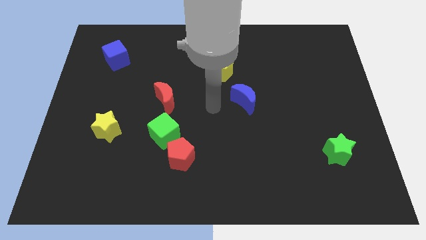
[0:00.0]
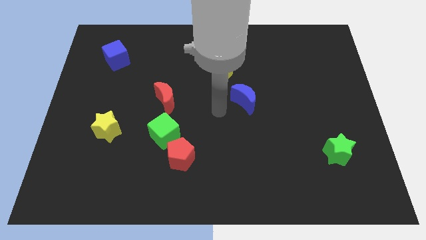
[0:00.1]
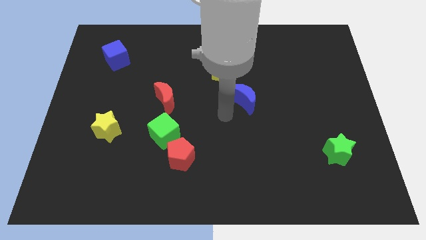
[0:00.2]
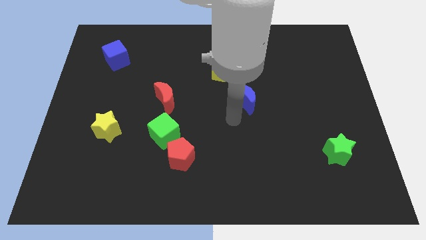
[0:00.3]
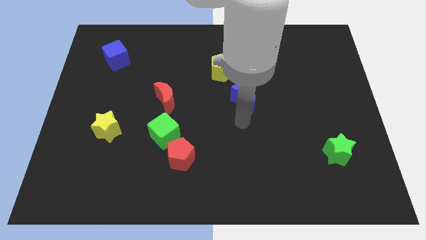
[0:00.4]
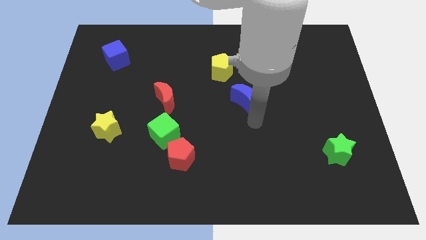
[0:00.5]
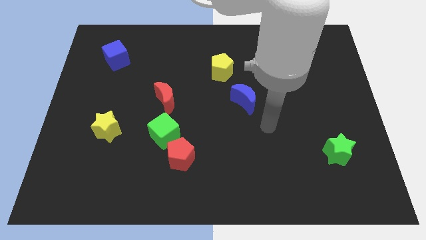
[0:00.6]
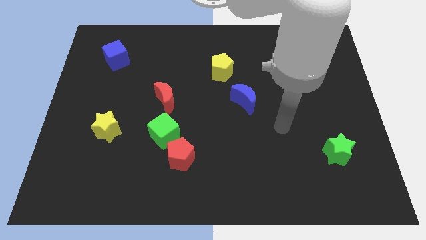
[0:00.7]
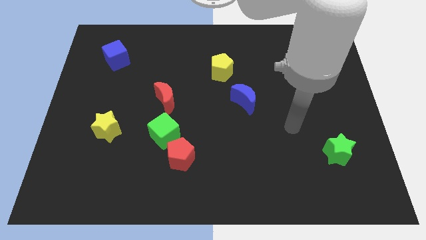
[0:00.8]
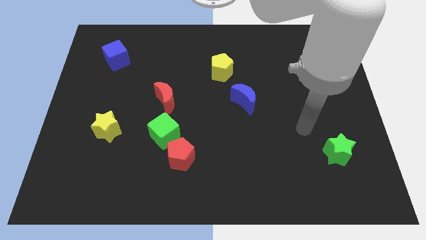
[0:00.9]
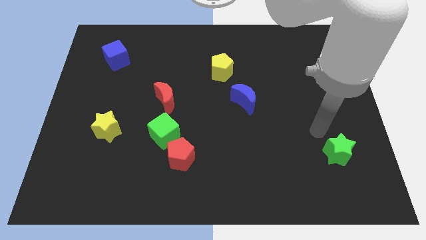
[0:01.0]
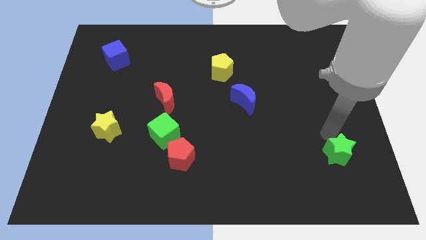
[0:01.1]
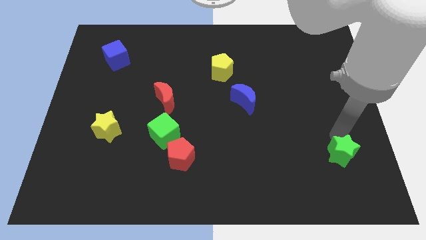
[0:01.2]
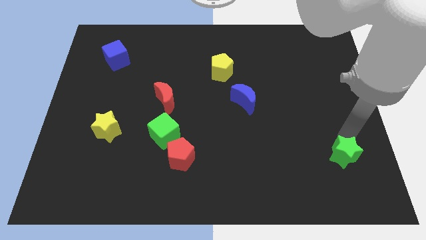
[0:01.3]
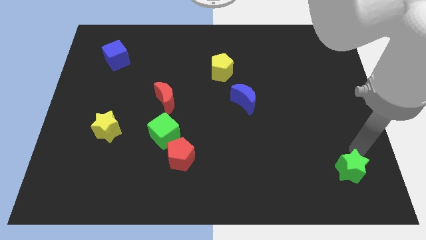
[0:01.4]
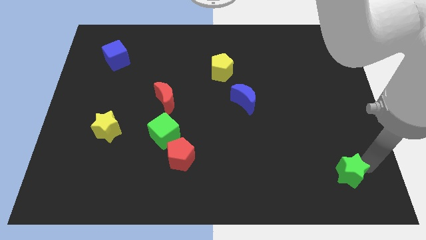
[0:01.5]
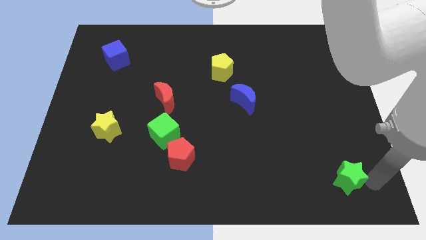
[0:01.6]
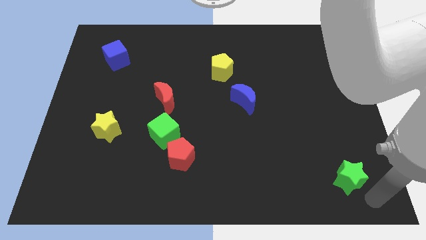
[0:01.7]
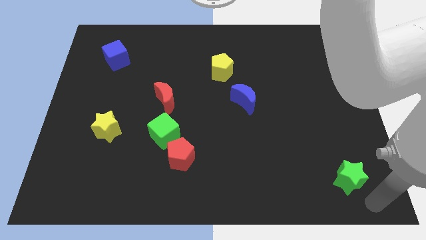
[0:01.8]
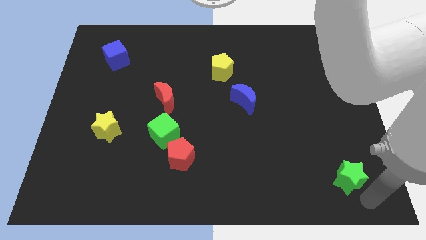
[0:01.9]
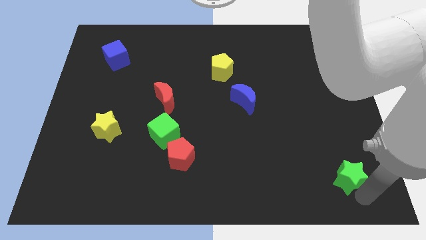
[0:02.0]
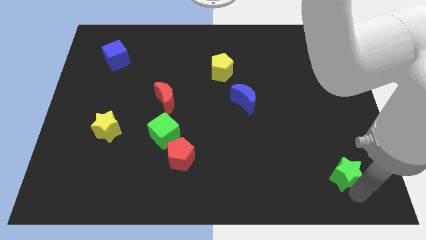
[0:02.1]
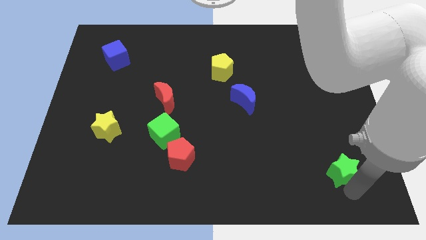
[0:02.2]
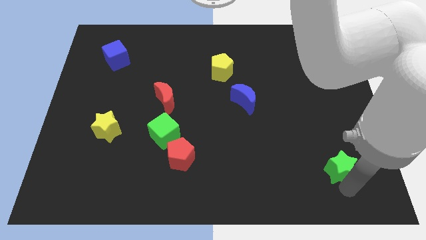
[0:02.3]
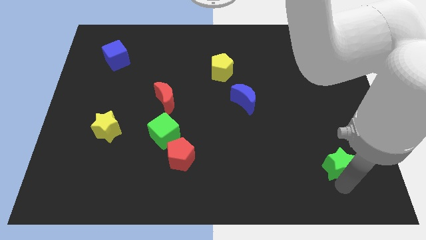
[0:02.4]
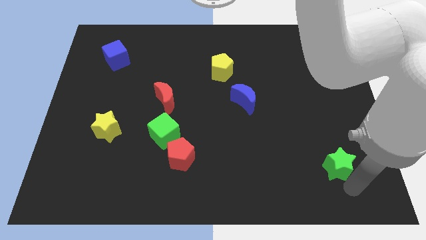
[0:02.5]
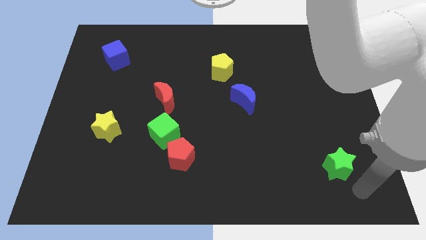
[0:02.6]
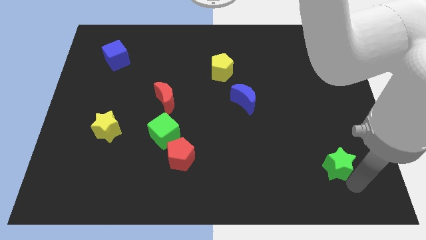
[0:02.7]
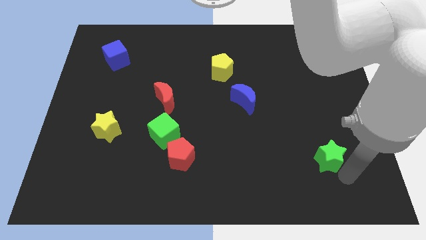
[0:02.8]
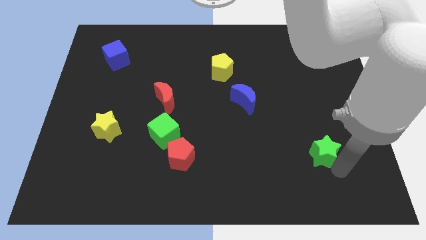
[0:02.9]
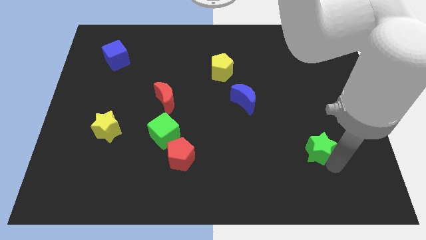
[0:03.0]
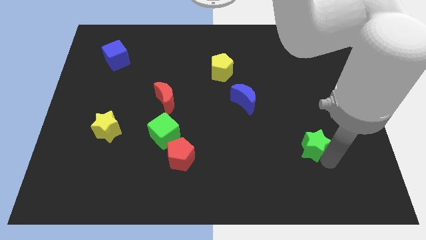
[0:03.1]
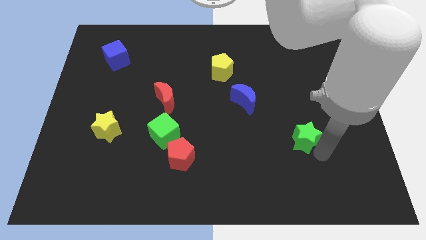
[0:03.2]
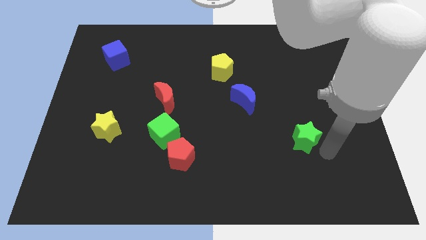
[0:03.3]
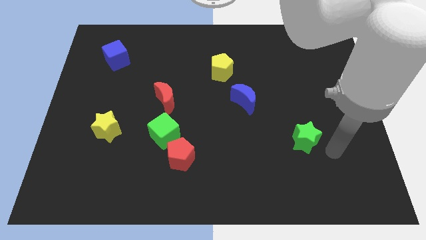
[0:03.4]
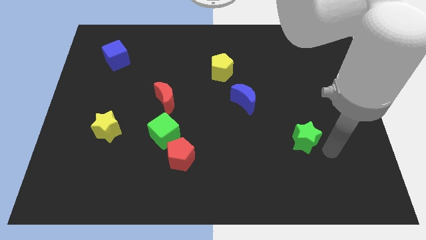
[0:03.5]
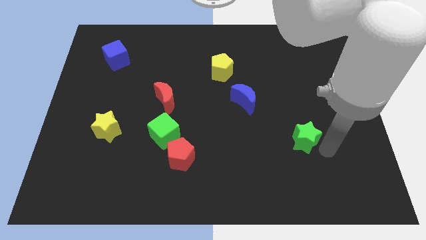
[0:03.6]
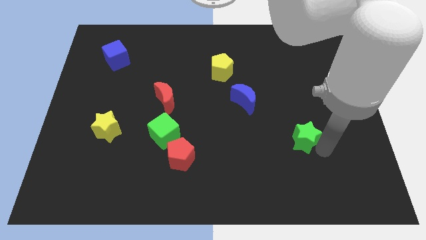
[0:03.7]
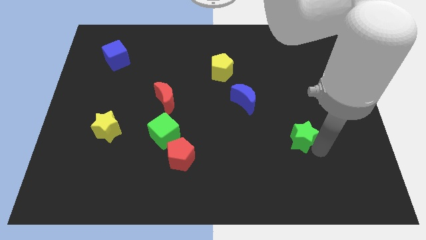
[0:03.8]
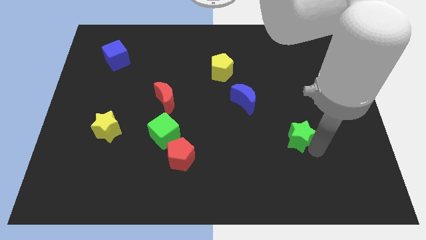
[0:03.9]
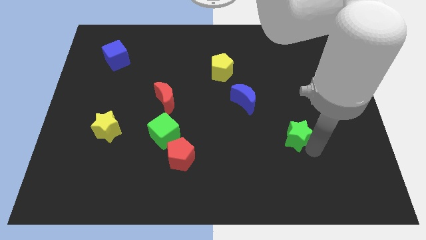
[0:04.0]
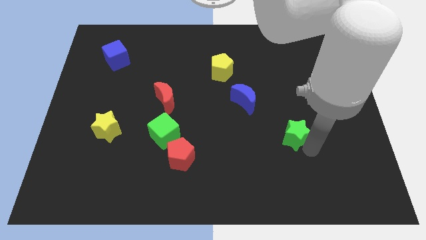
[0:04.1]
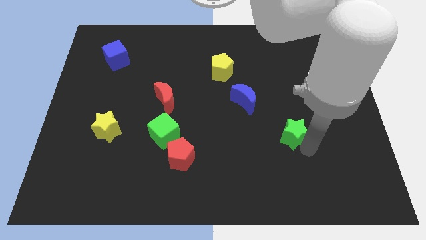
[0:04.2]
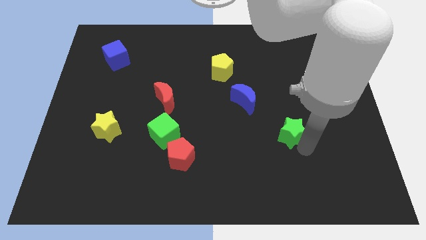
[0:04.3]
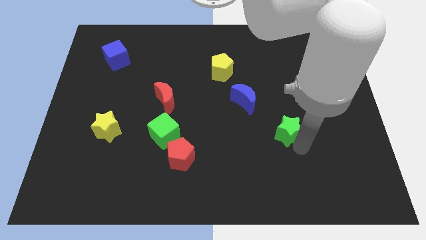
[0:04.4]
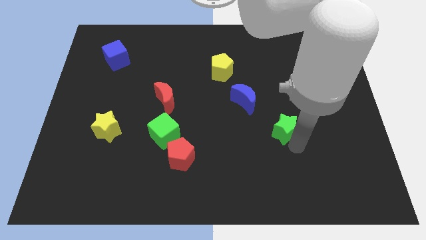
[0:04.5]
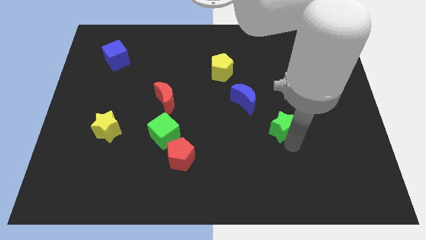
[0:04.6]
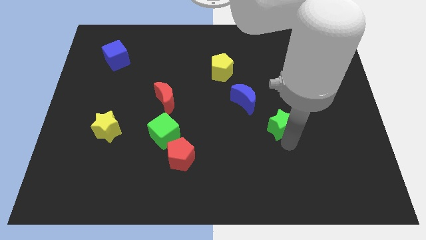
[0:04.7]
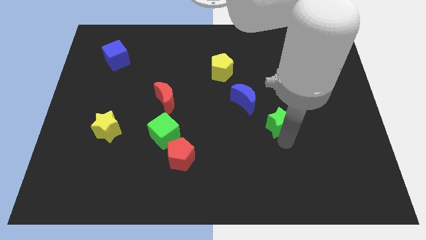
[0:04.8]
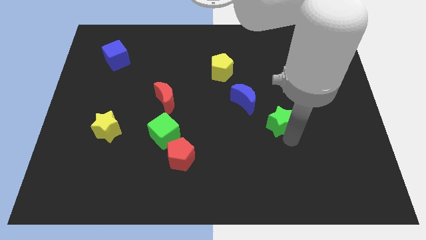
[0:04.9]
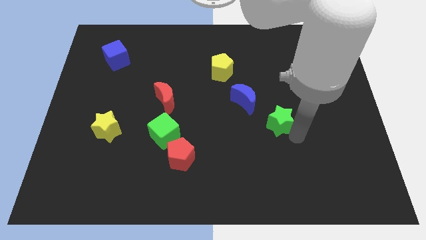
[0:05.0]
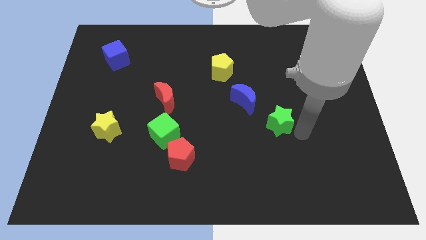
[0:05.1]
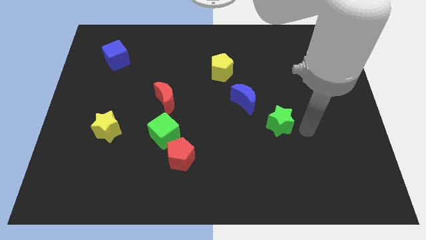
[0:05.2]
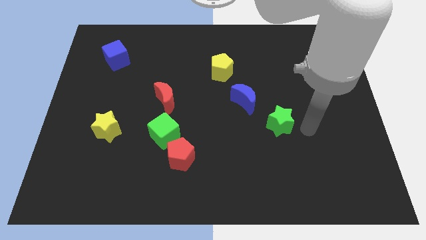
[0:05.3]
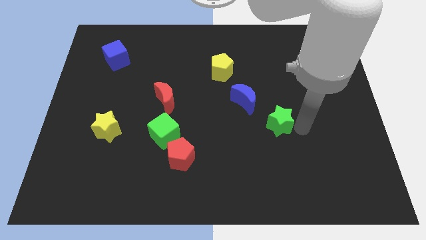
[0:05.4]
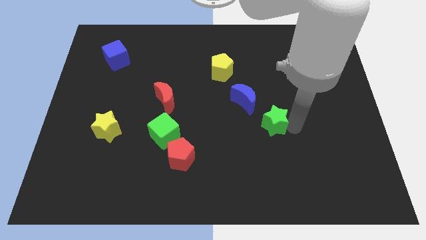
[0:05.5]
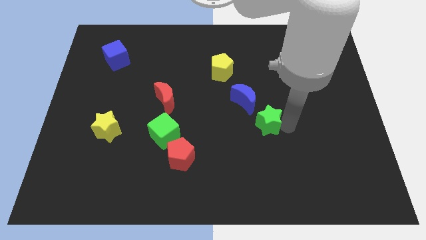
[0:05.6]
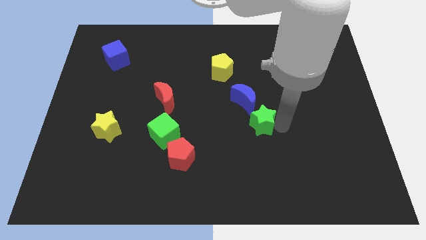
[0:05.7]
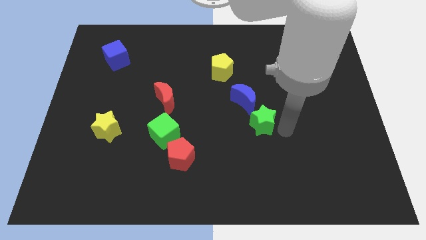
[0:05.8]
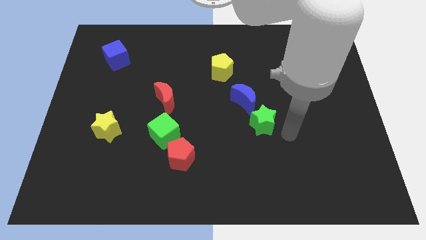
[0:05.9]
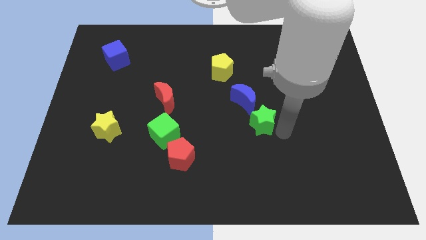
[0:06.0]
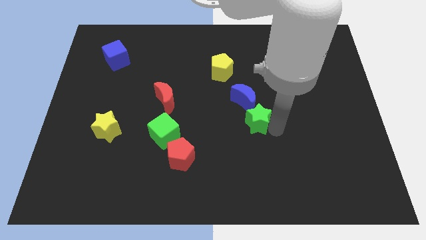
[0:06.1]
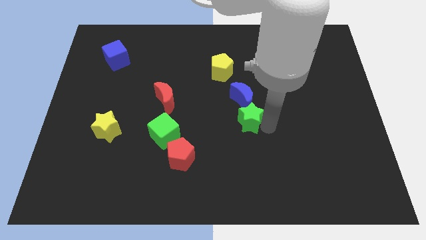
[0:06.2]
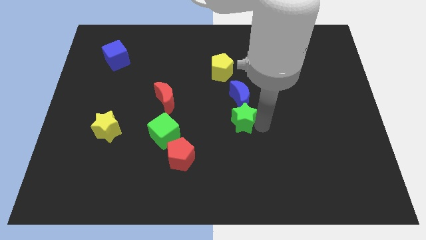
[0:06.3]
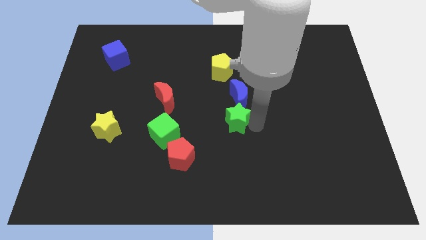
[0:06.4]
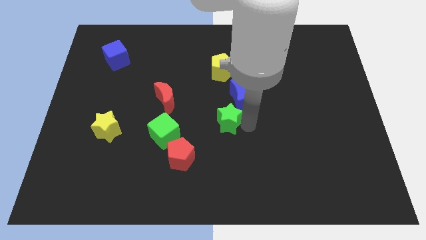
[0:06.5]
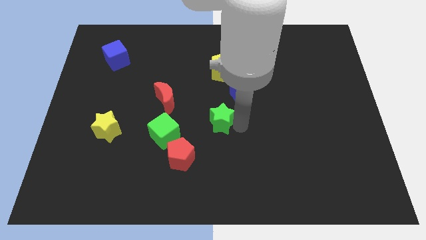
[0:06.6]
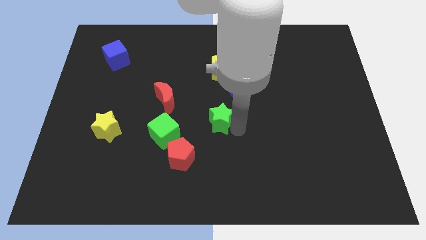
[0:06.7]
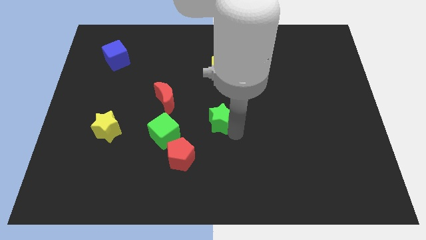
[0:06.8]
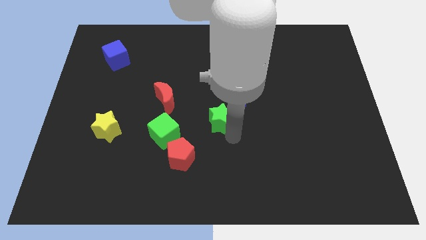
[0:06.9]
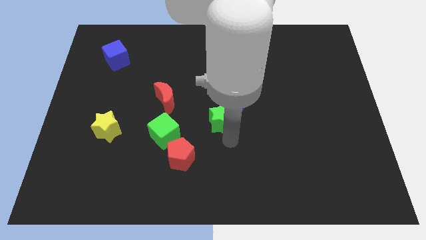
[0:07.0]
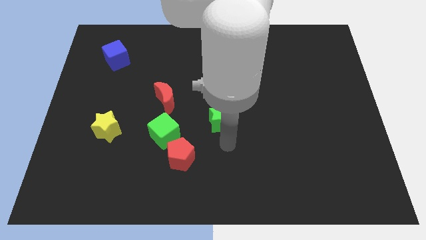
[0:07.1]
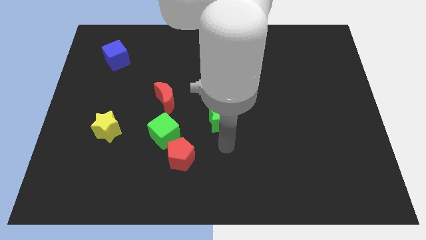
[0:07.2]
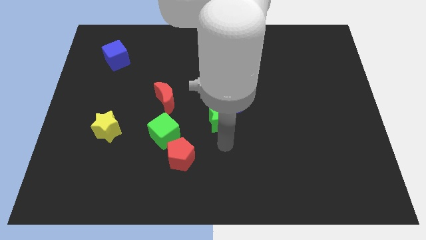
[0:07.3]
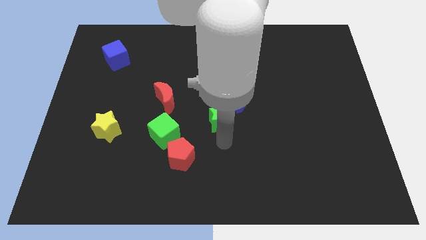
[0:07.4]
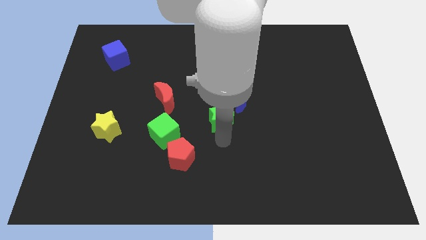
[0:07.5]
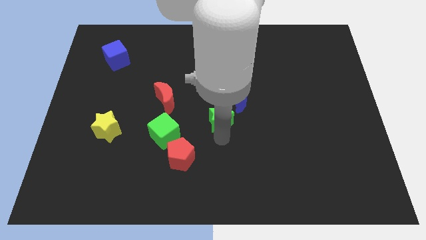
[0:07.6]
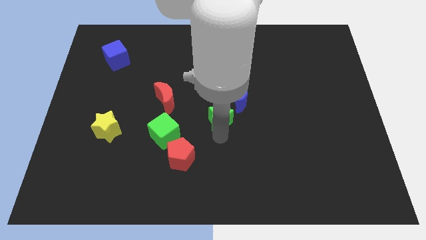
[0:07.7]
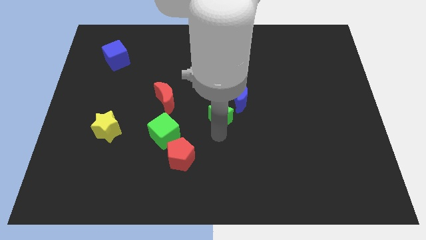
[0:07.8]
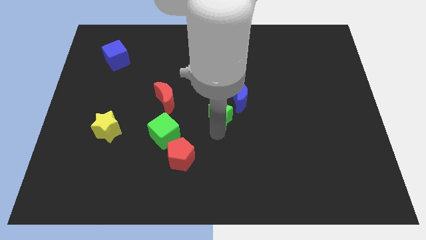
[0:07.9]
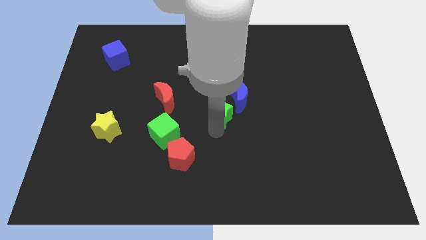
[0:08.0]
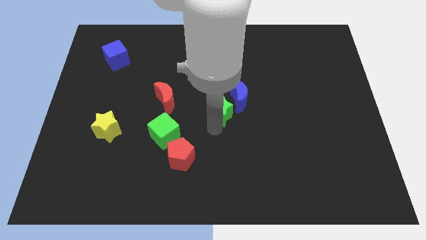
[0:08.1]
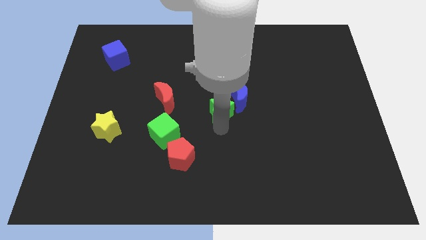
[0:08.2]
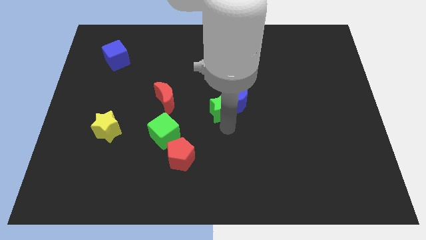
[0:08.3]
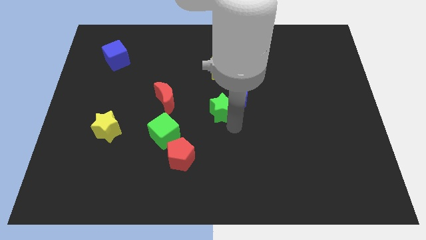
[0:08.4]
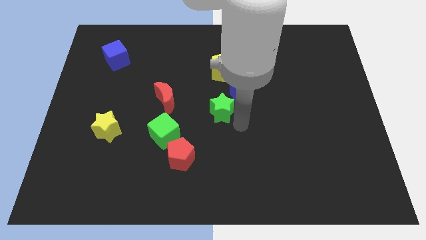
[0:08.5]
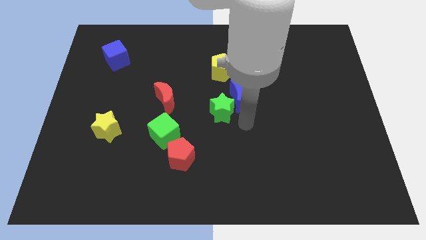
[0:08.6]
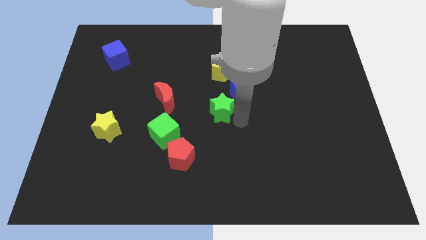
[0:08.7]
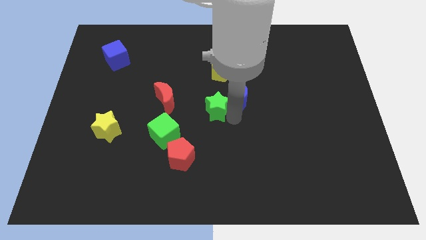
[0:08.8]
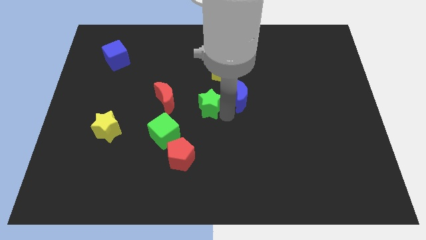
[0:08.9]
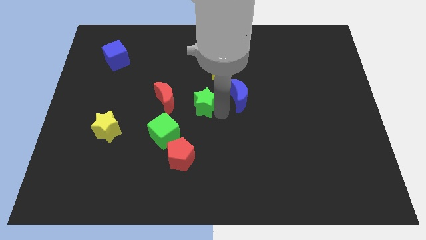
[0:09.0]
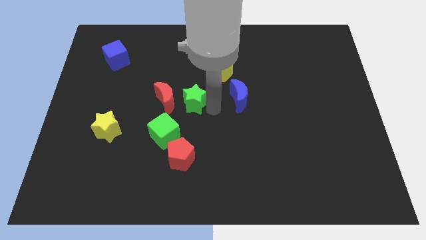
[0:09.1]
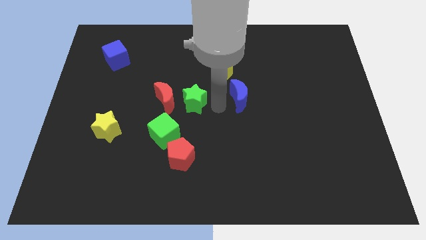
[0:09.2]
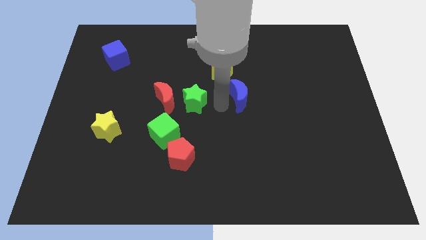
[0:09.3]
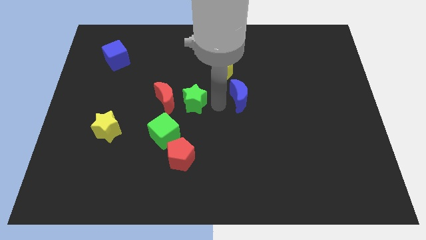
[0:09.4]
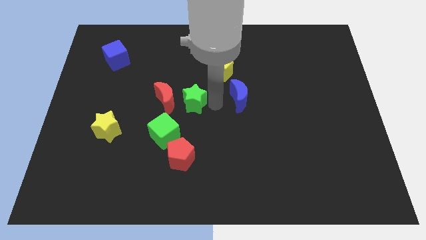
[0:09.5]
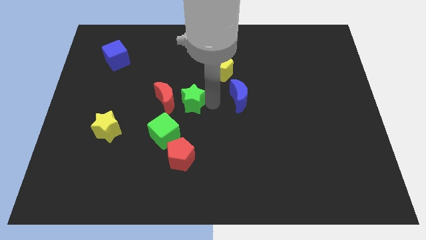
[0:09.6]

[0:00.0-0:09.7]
push the green star next to the red moon
